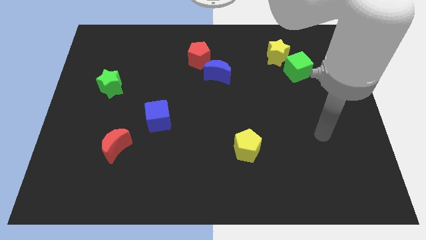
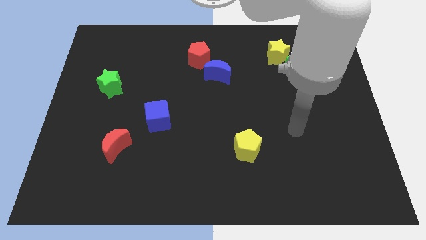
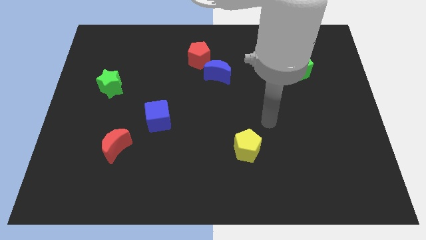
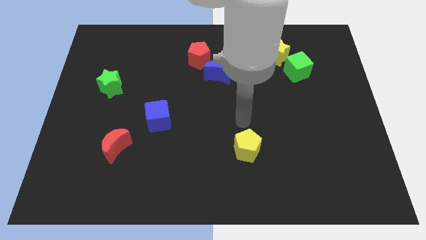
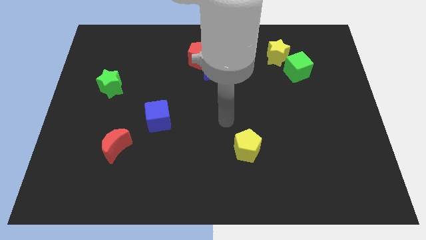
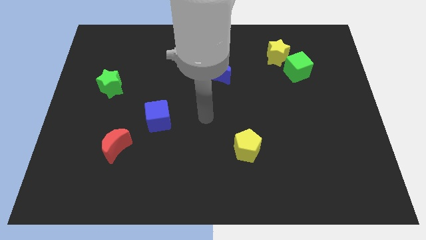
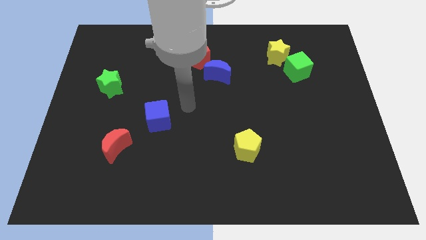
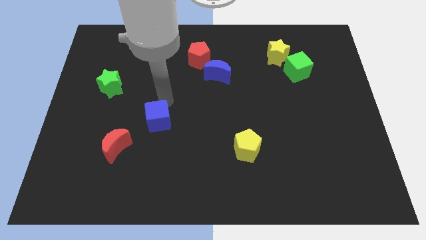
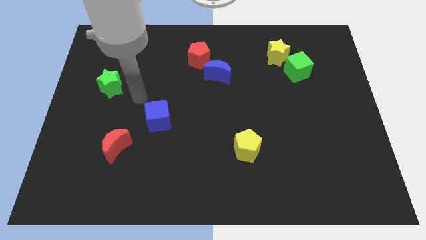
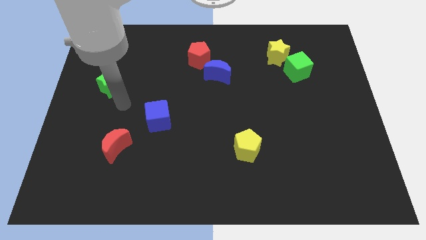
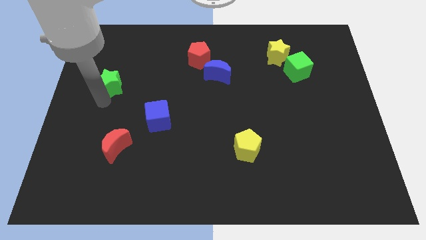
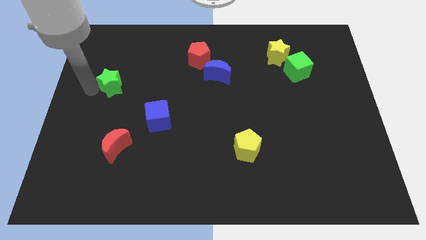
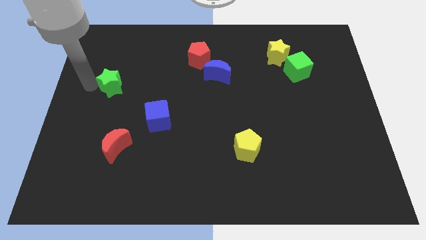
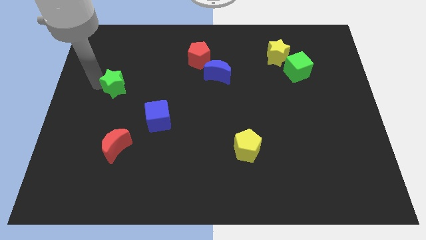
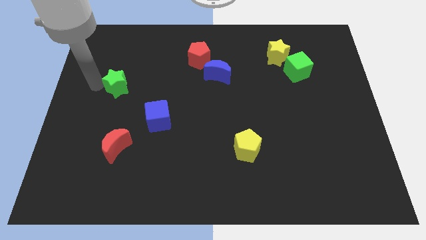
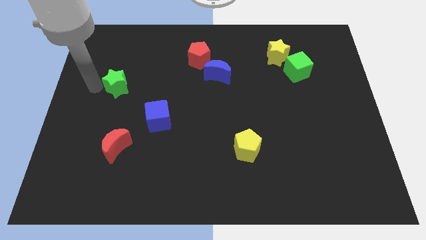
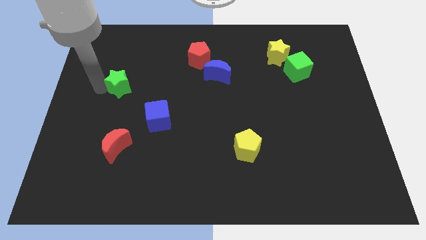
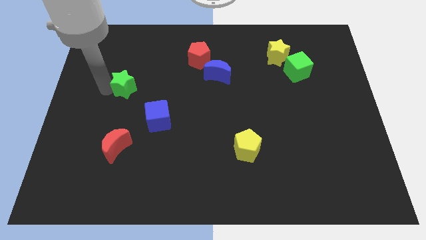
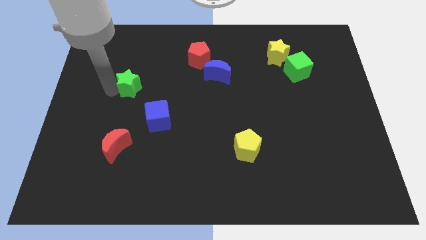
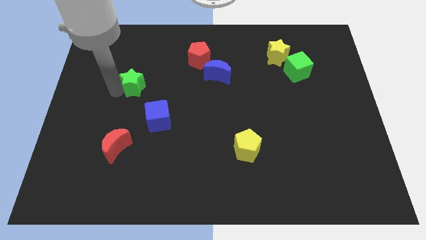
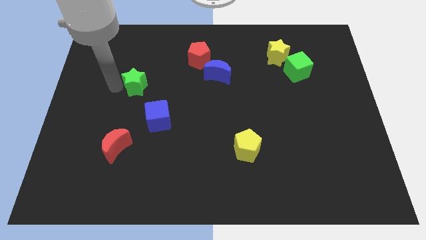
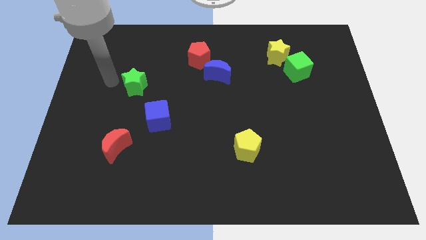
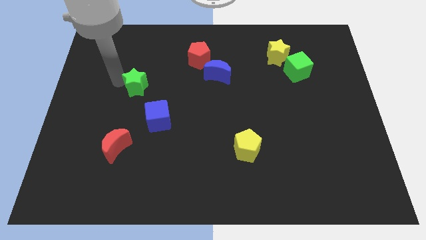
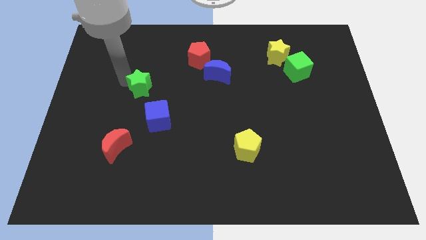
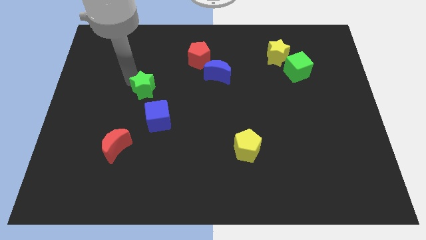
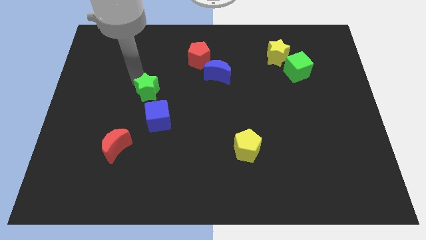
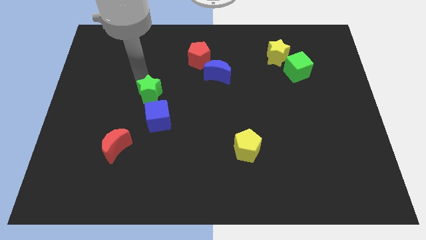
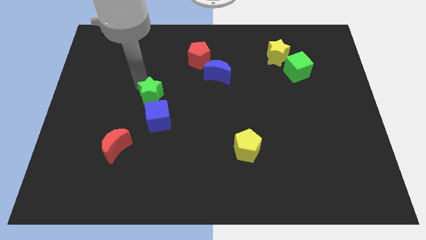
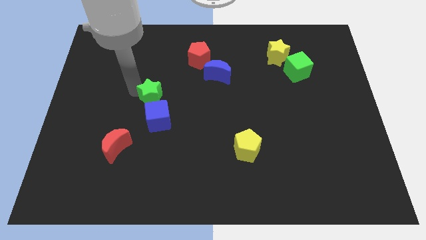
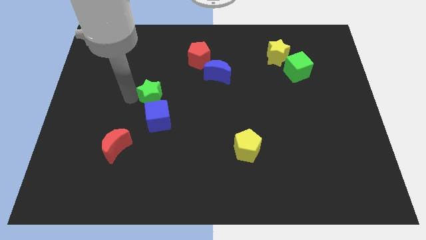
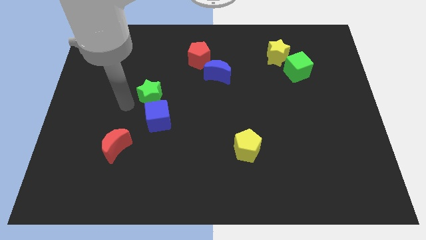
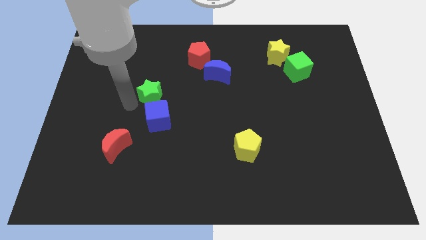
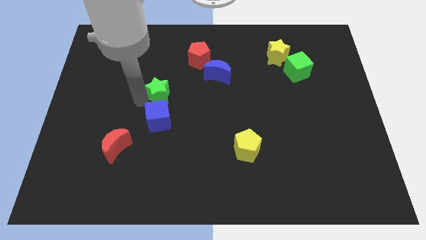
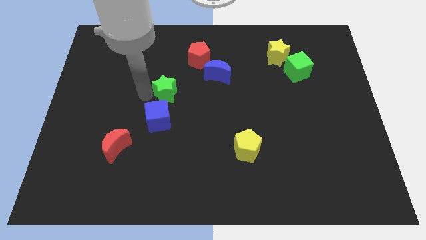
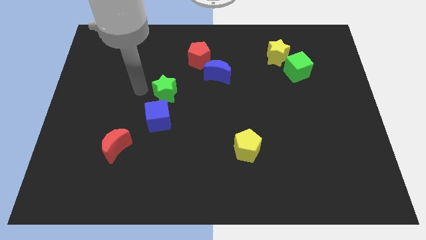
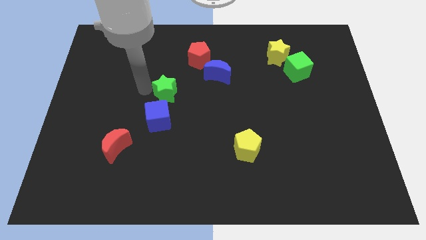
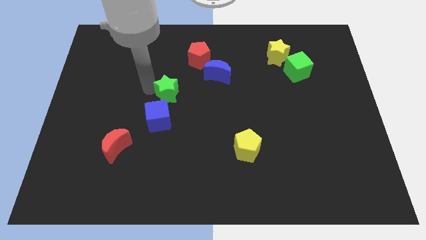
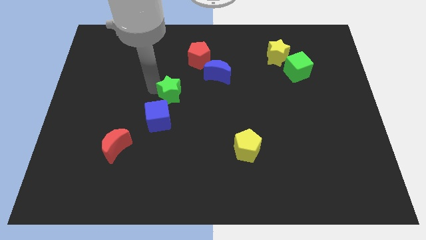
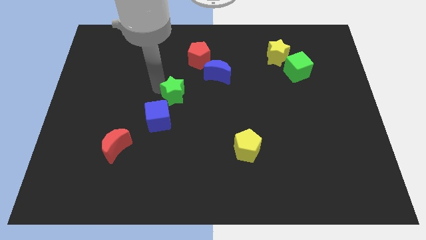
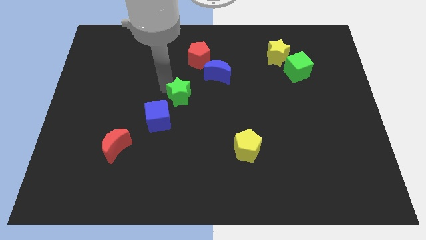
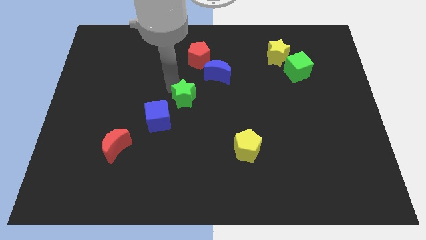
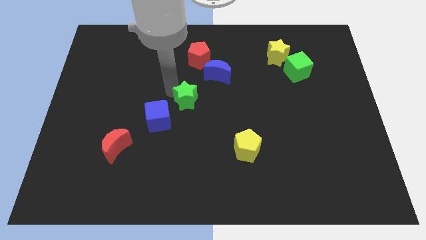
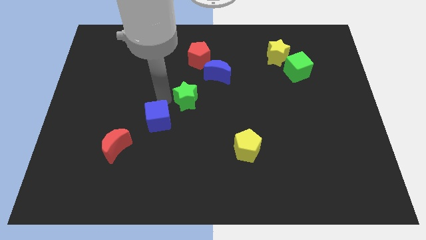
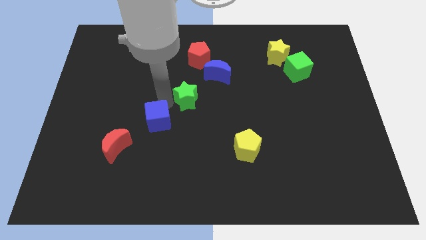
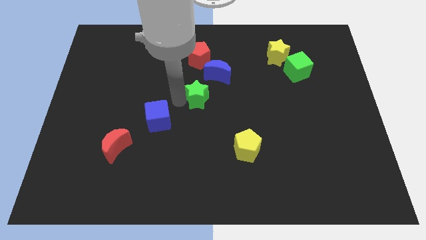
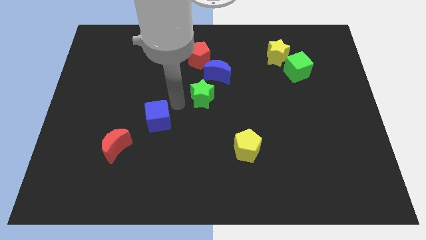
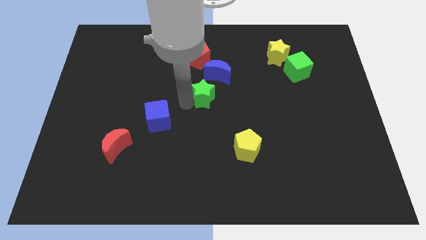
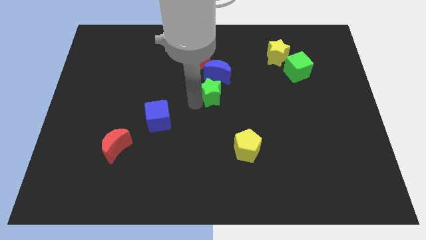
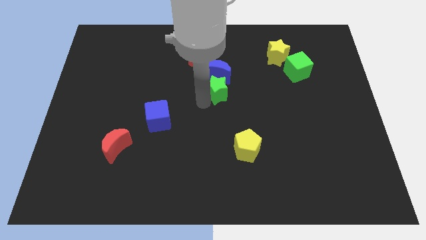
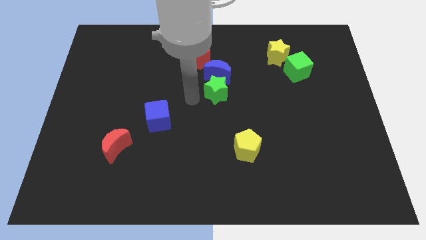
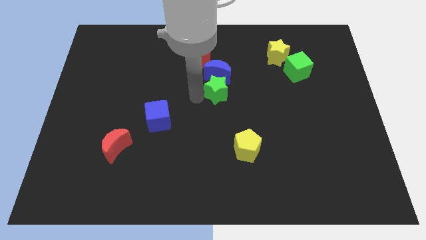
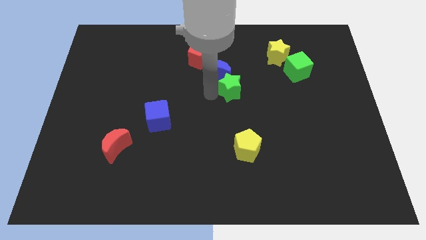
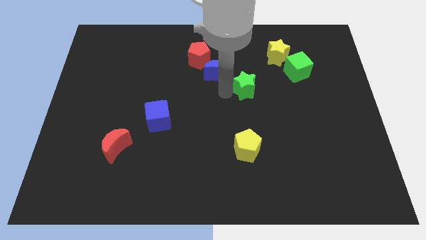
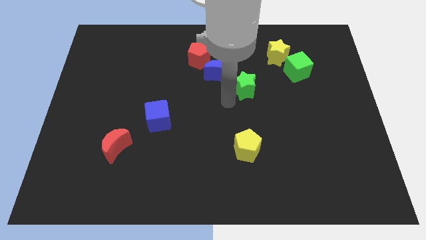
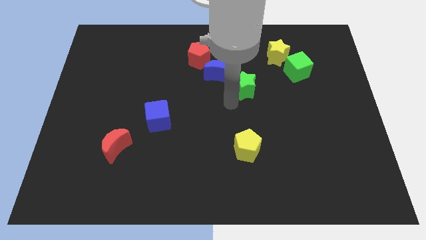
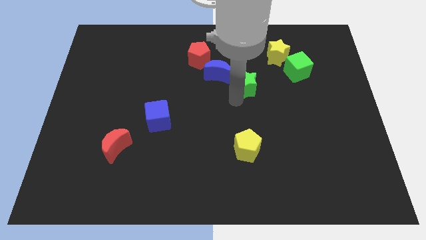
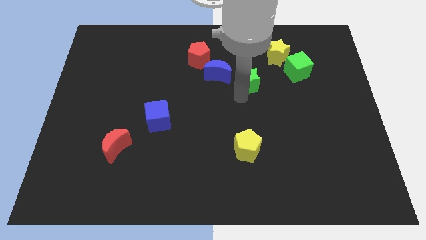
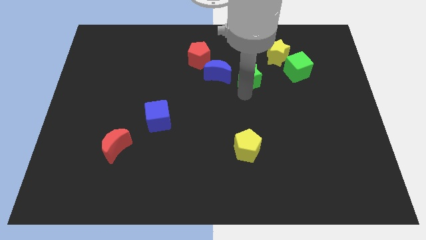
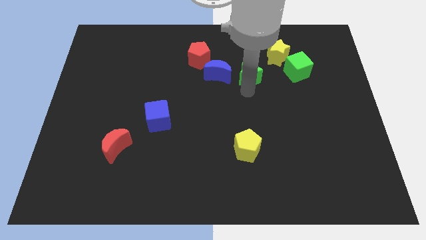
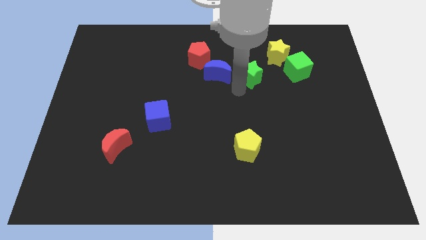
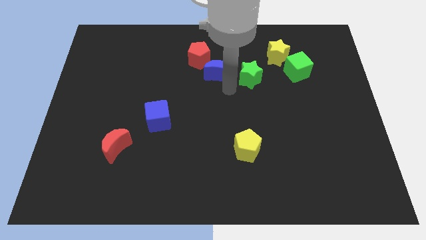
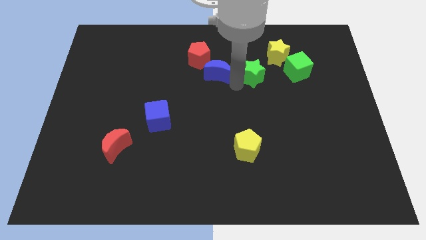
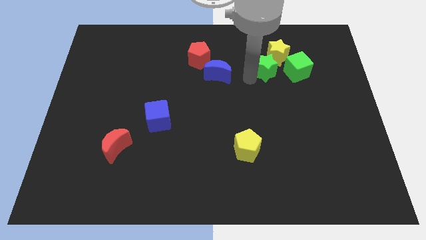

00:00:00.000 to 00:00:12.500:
push the green star to the yellow star
